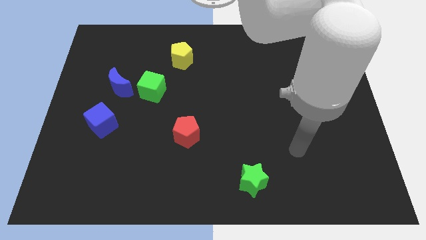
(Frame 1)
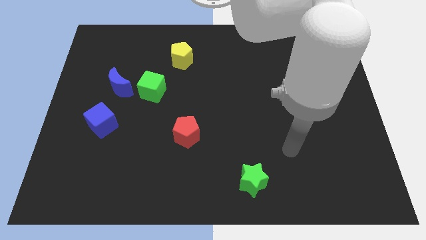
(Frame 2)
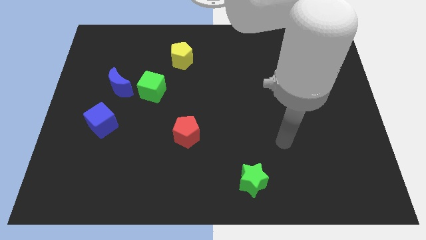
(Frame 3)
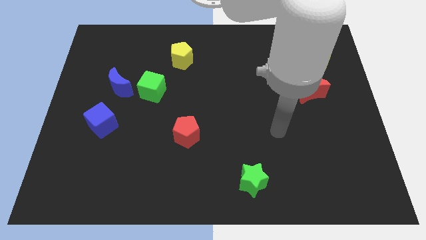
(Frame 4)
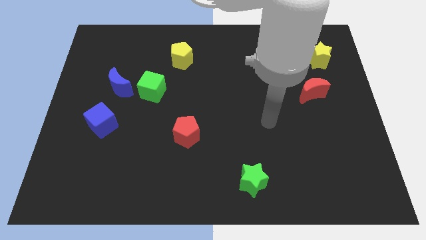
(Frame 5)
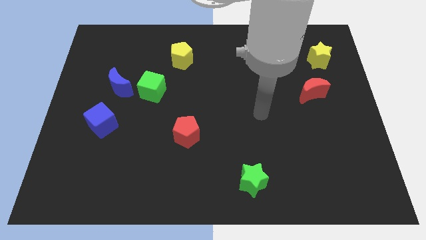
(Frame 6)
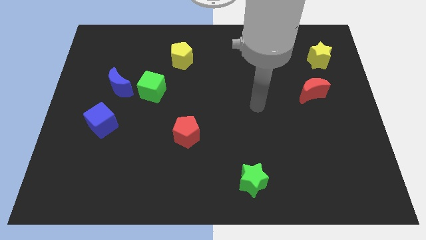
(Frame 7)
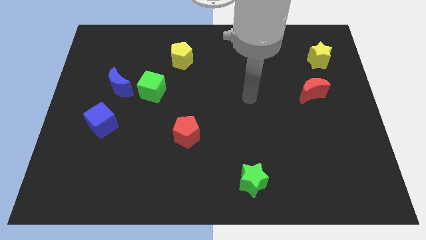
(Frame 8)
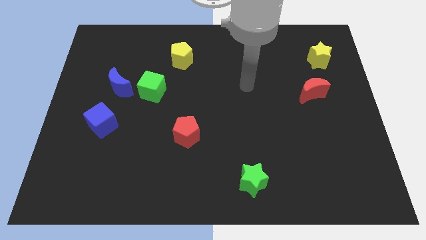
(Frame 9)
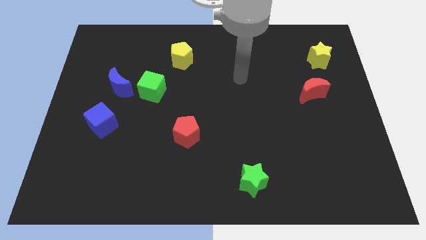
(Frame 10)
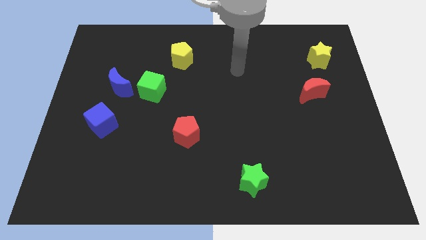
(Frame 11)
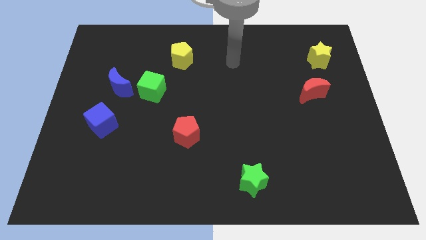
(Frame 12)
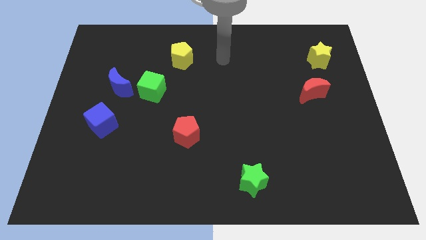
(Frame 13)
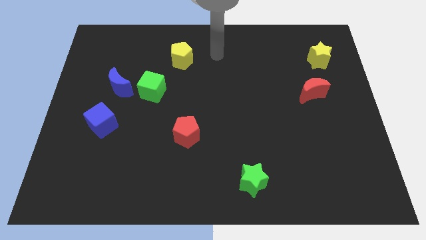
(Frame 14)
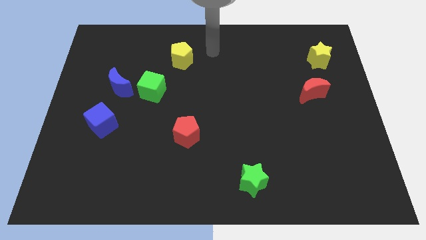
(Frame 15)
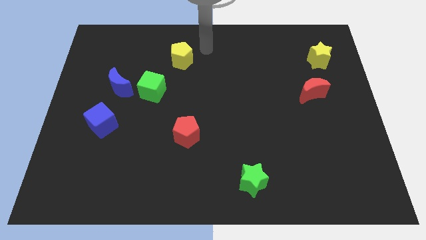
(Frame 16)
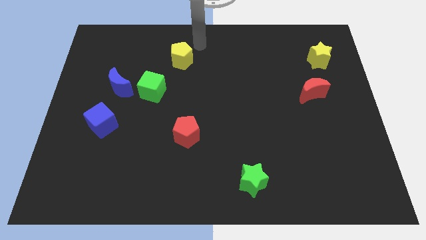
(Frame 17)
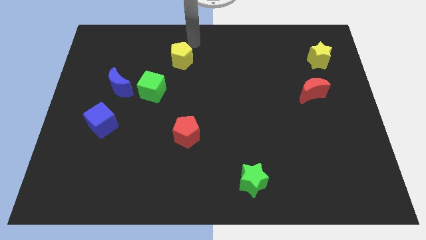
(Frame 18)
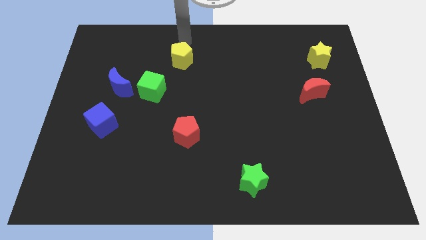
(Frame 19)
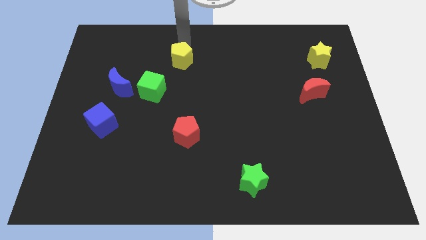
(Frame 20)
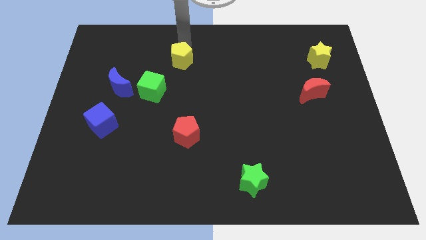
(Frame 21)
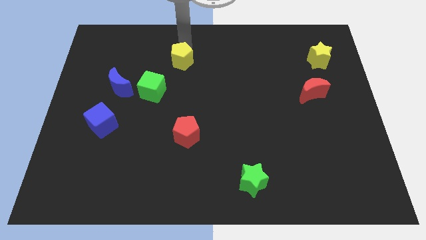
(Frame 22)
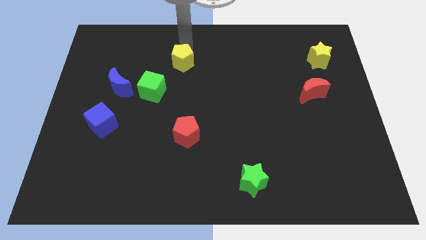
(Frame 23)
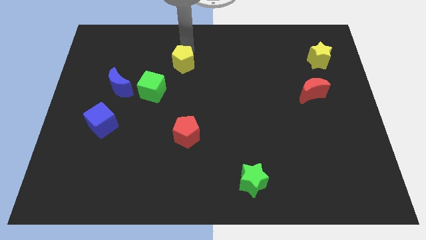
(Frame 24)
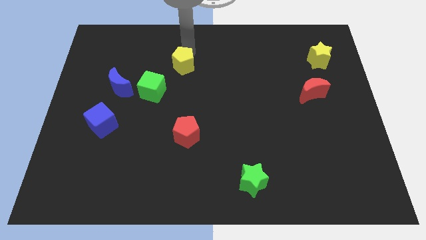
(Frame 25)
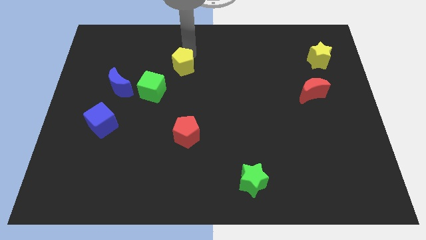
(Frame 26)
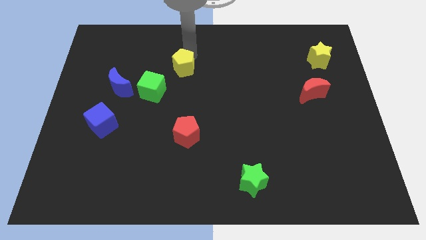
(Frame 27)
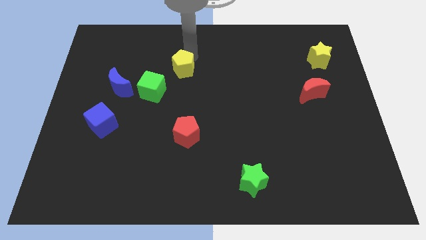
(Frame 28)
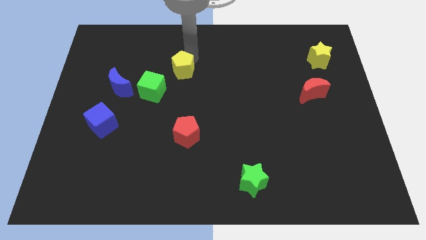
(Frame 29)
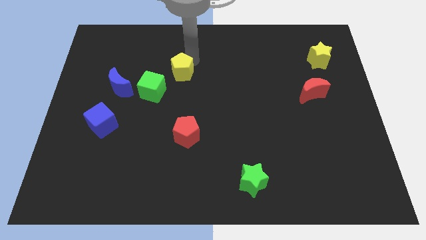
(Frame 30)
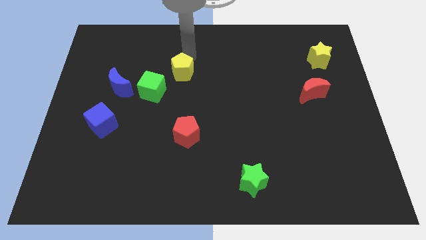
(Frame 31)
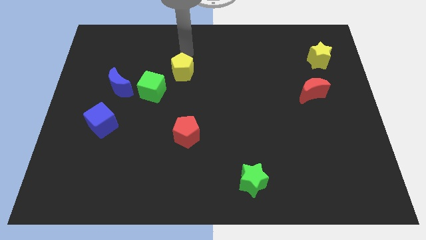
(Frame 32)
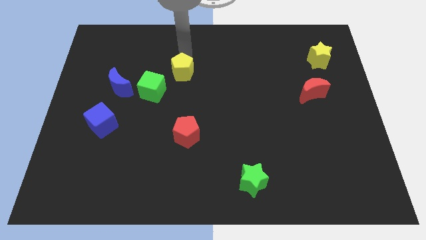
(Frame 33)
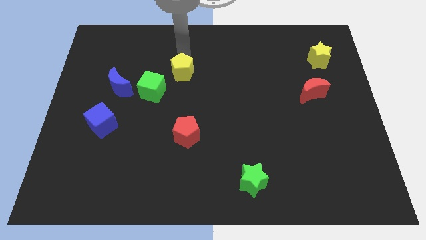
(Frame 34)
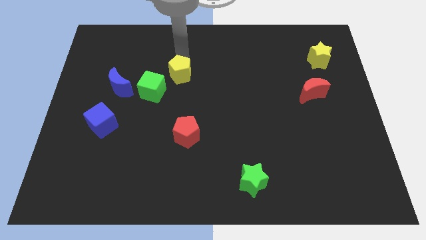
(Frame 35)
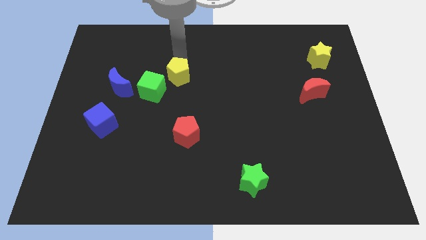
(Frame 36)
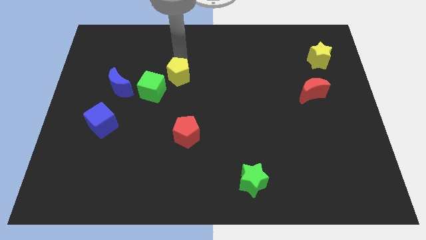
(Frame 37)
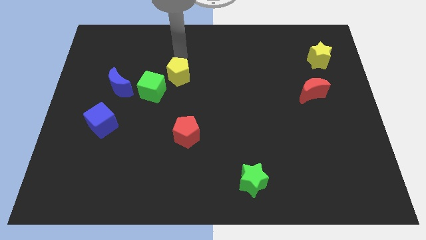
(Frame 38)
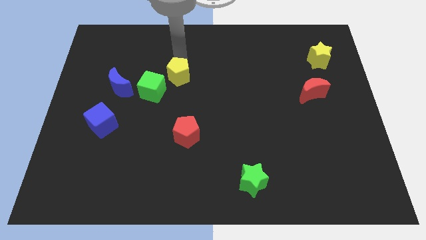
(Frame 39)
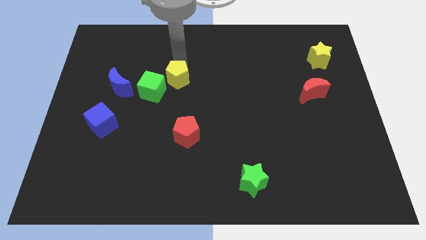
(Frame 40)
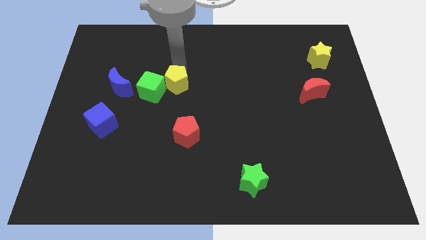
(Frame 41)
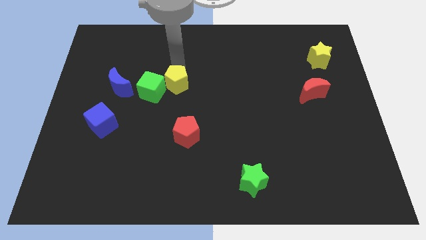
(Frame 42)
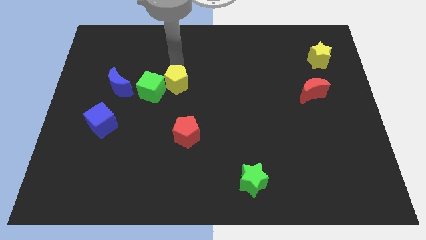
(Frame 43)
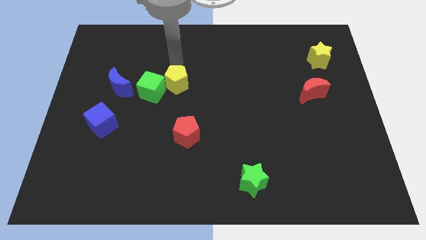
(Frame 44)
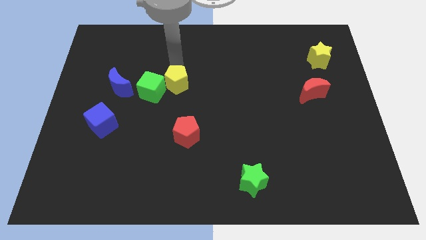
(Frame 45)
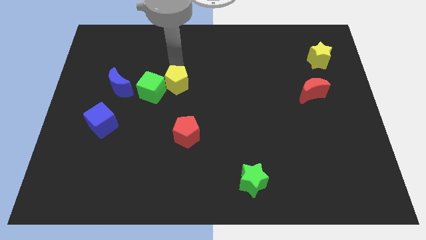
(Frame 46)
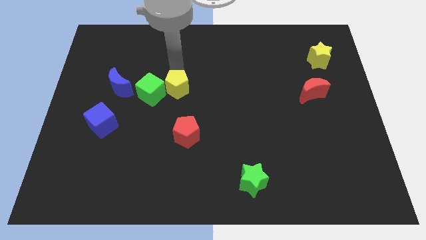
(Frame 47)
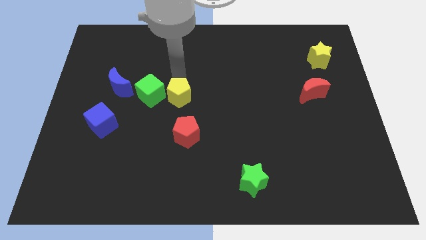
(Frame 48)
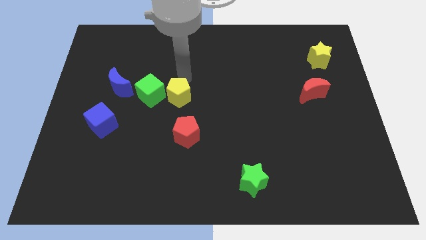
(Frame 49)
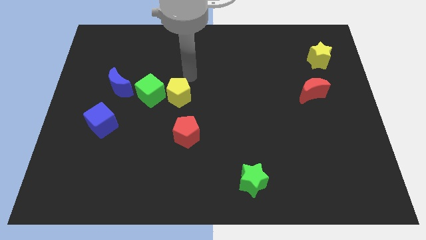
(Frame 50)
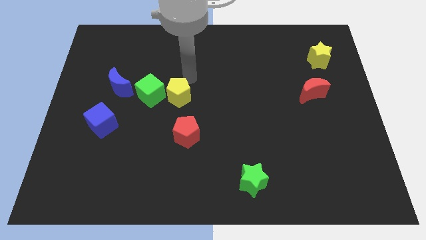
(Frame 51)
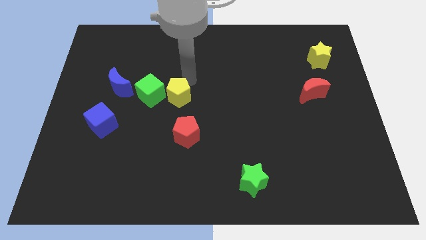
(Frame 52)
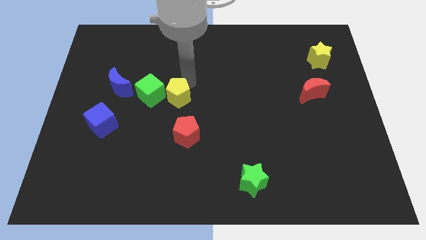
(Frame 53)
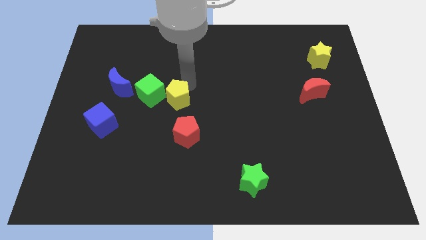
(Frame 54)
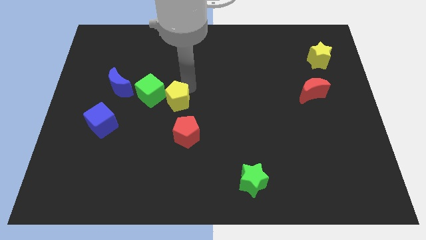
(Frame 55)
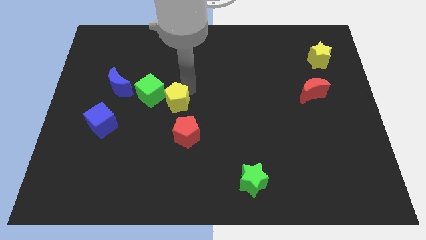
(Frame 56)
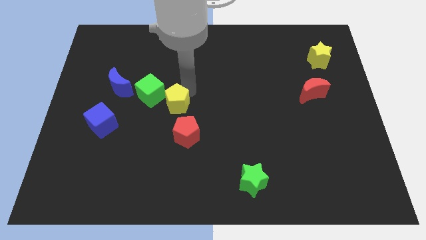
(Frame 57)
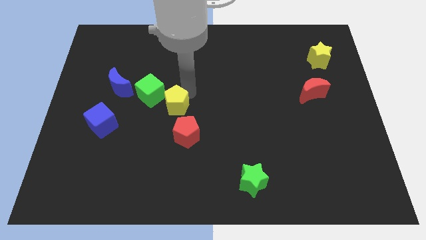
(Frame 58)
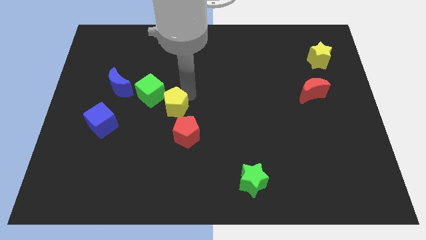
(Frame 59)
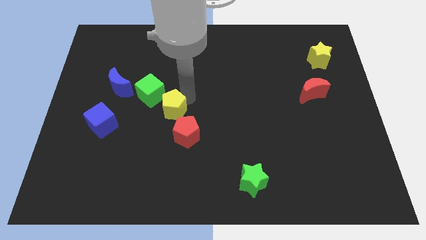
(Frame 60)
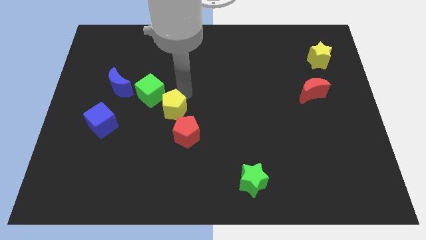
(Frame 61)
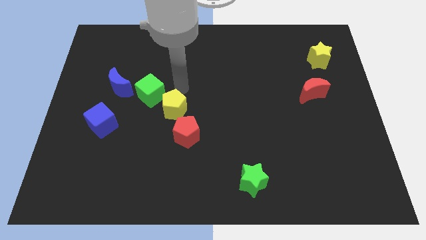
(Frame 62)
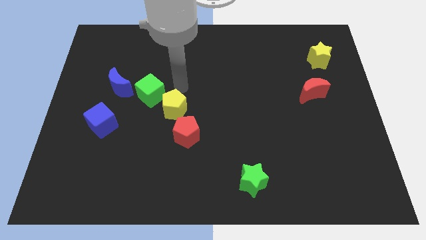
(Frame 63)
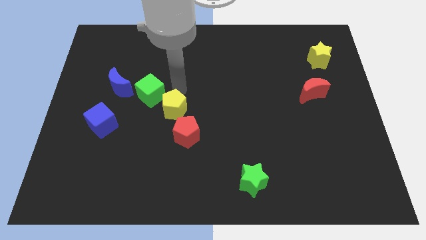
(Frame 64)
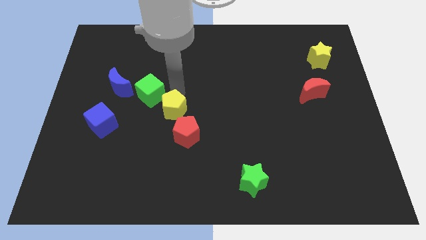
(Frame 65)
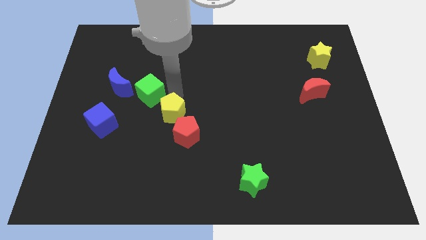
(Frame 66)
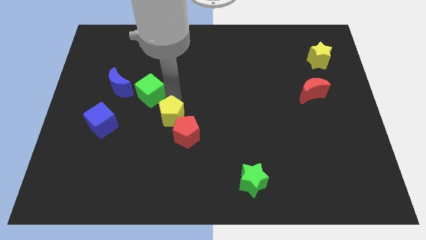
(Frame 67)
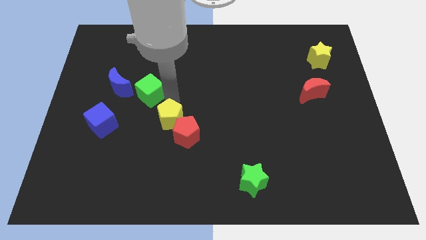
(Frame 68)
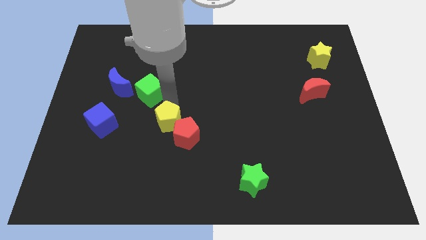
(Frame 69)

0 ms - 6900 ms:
push the yellow pentagon downwards

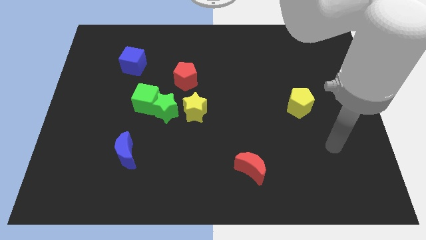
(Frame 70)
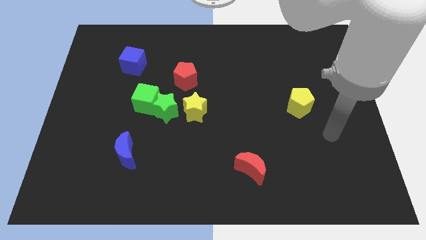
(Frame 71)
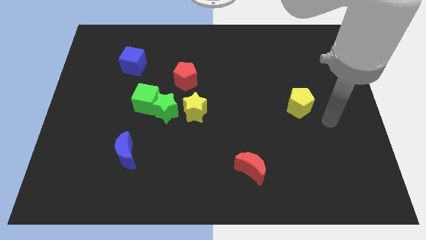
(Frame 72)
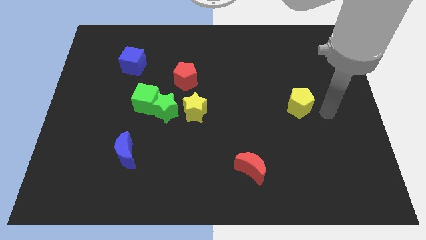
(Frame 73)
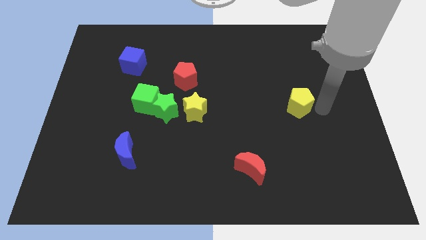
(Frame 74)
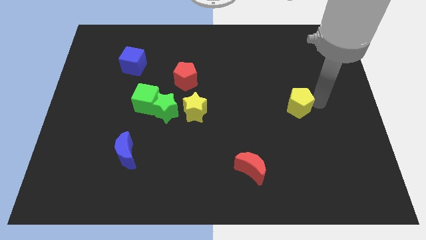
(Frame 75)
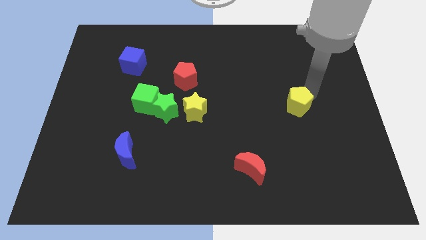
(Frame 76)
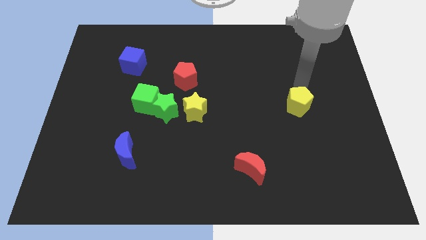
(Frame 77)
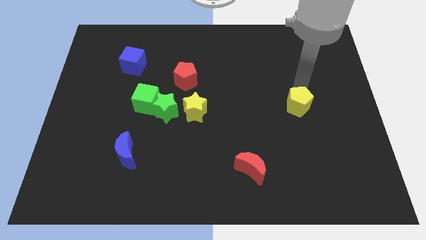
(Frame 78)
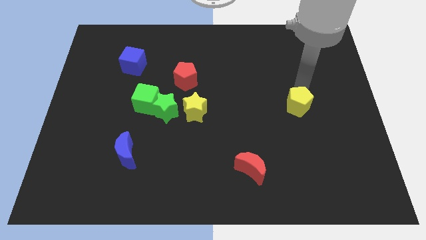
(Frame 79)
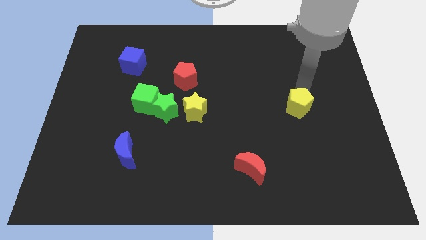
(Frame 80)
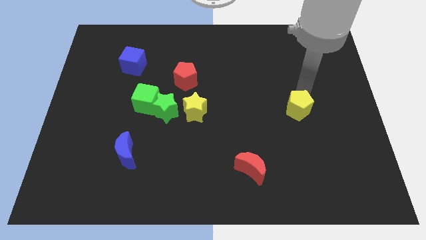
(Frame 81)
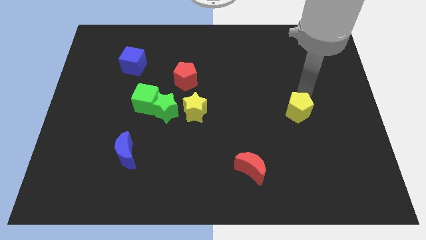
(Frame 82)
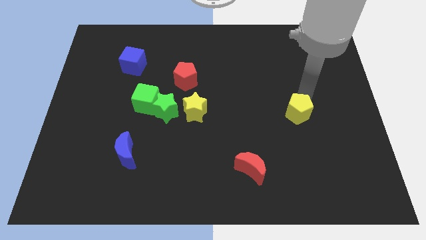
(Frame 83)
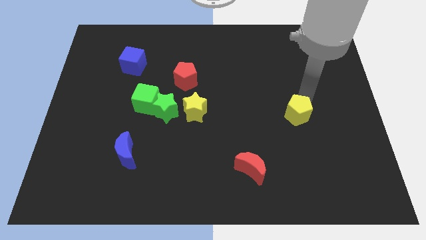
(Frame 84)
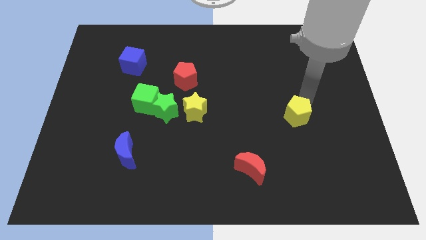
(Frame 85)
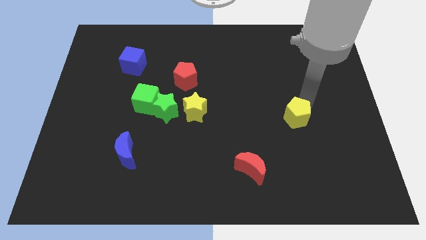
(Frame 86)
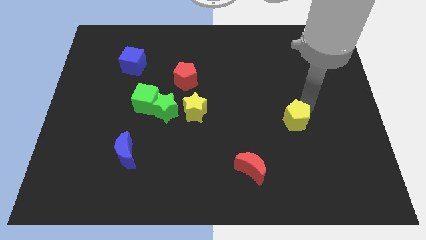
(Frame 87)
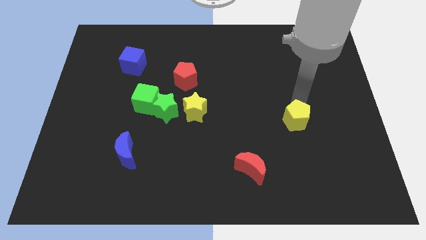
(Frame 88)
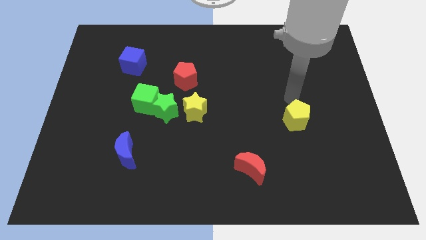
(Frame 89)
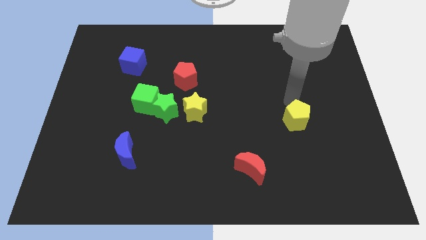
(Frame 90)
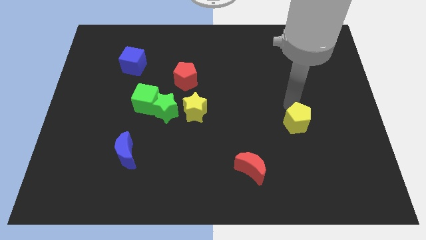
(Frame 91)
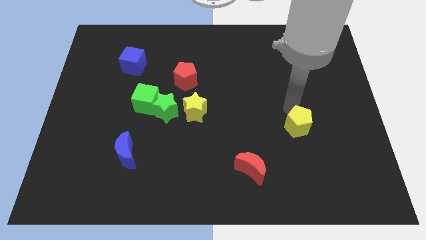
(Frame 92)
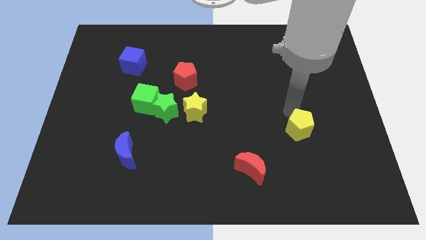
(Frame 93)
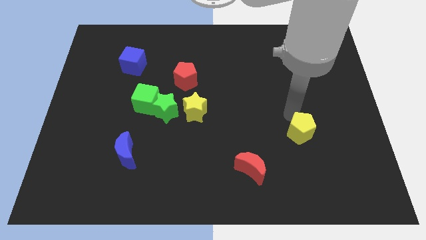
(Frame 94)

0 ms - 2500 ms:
move the yellow pentagon downwards a little
